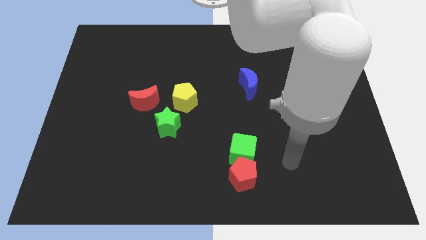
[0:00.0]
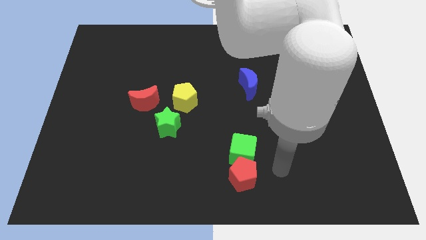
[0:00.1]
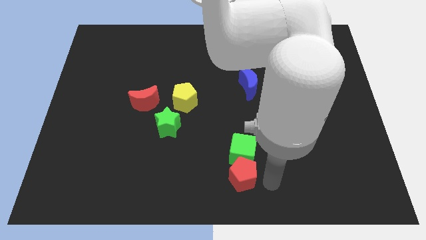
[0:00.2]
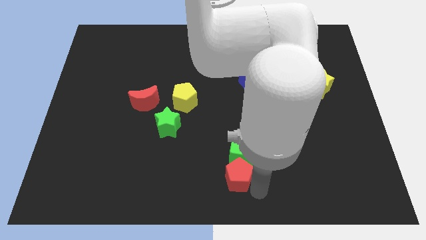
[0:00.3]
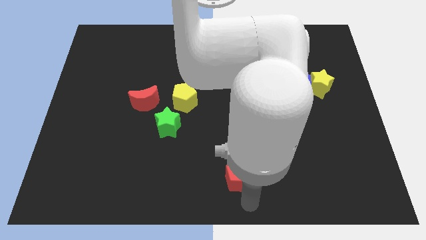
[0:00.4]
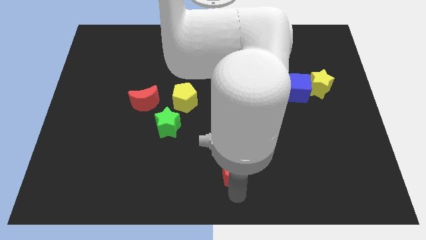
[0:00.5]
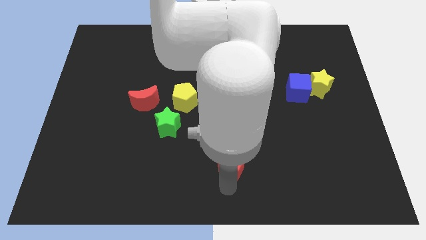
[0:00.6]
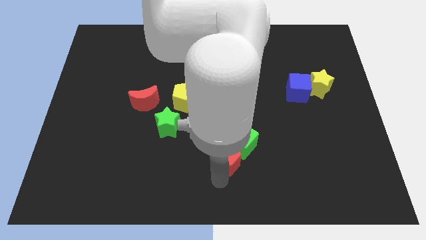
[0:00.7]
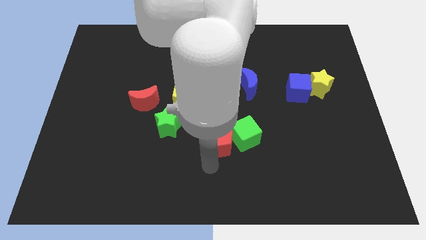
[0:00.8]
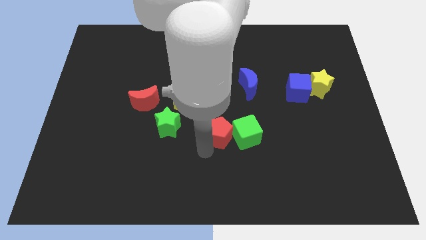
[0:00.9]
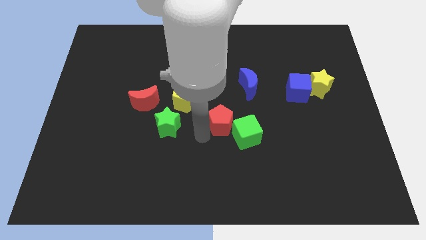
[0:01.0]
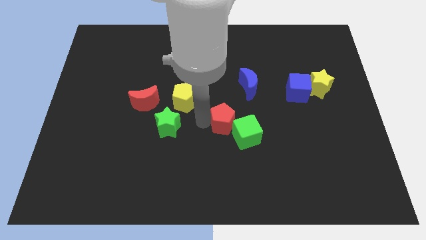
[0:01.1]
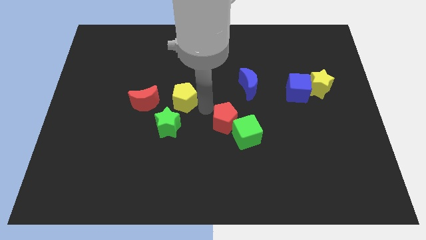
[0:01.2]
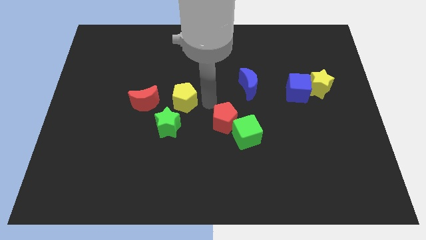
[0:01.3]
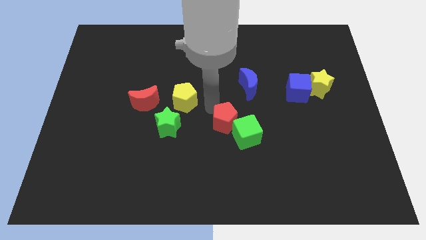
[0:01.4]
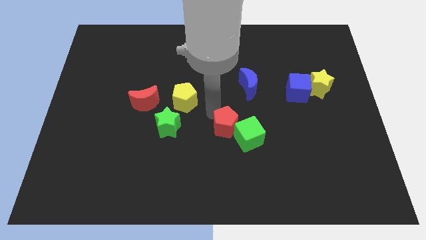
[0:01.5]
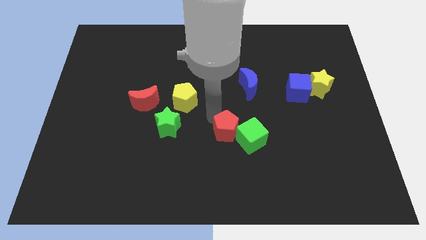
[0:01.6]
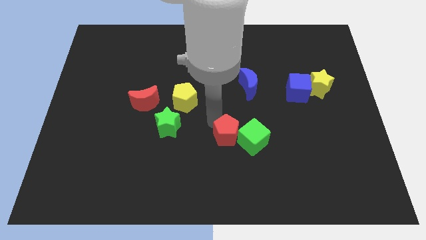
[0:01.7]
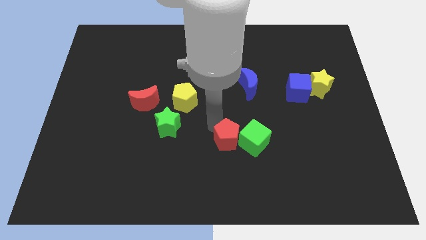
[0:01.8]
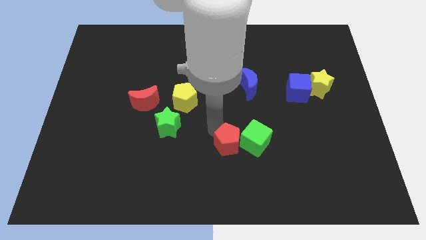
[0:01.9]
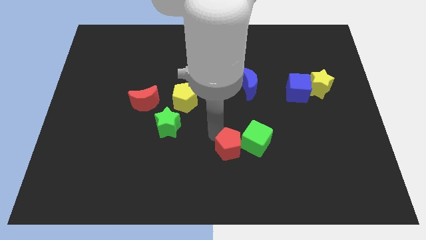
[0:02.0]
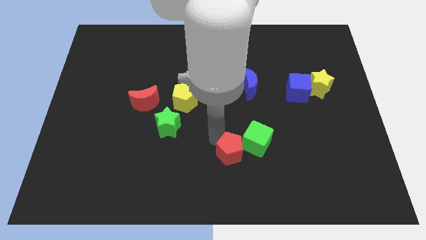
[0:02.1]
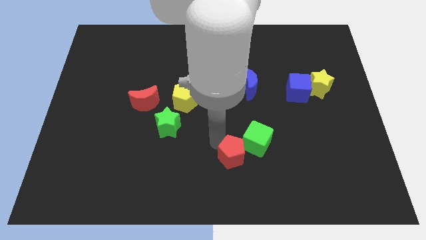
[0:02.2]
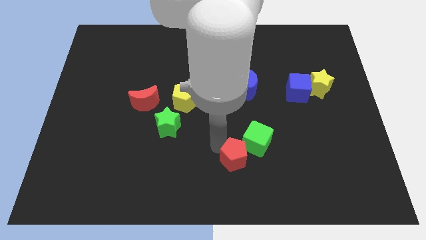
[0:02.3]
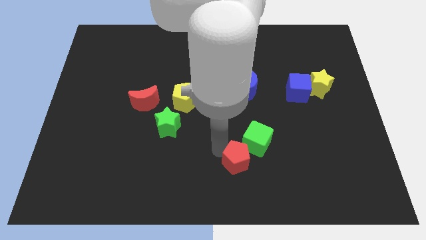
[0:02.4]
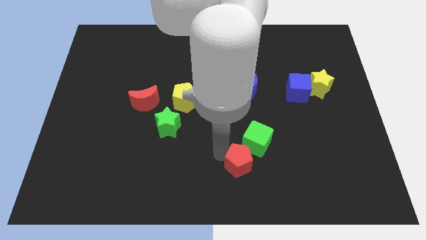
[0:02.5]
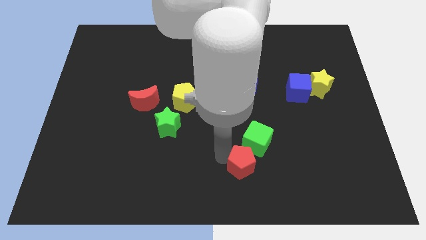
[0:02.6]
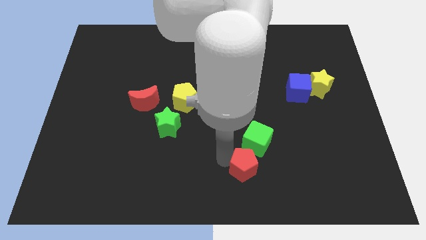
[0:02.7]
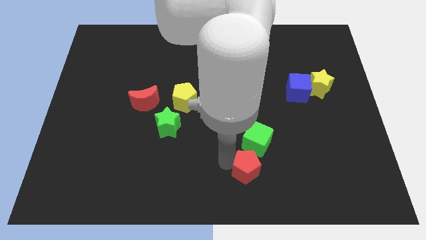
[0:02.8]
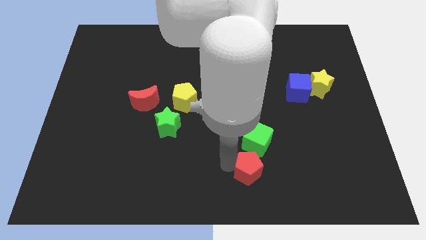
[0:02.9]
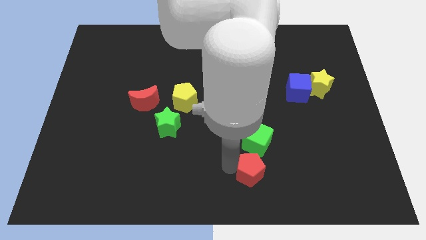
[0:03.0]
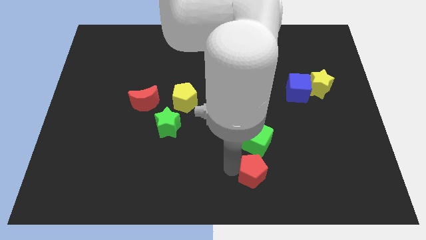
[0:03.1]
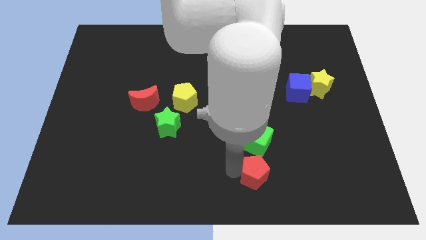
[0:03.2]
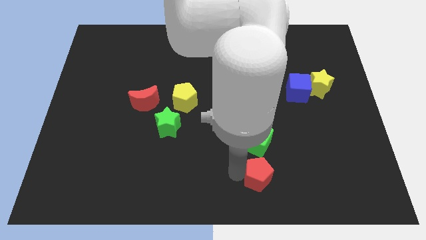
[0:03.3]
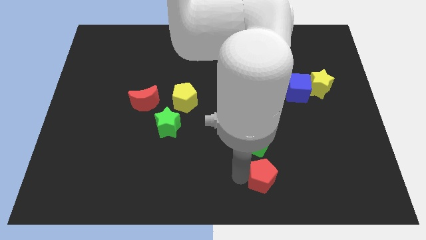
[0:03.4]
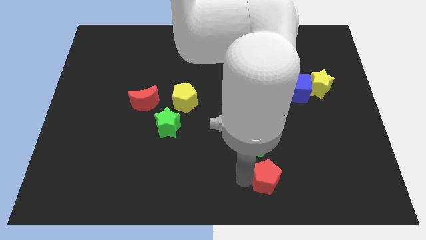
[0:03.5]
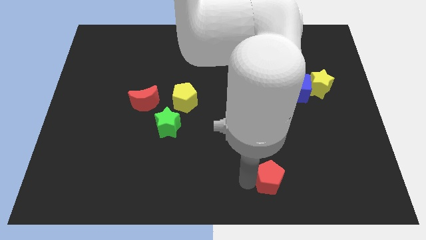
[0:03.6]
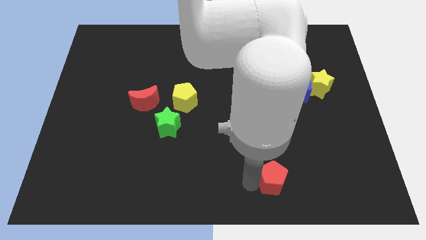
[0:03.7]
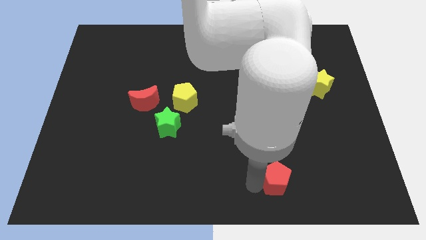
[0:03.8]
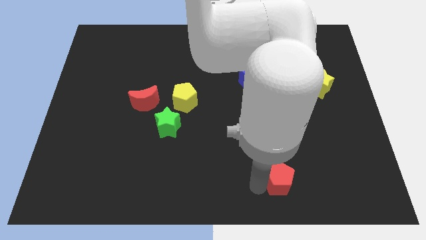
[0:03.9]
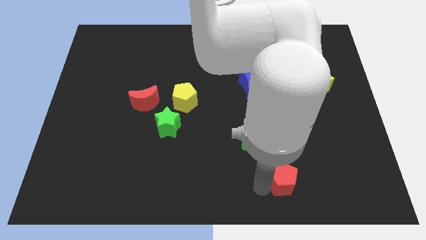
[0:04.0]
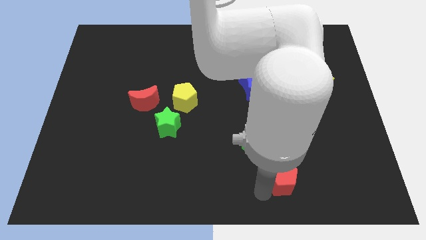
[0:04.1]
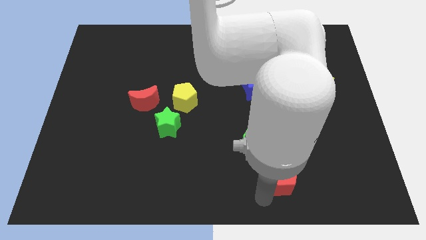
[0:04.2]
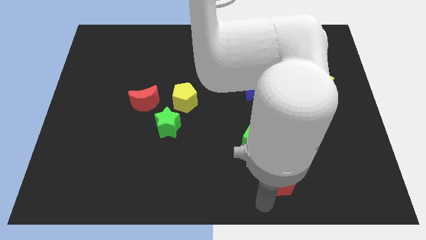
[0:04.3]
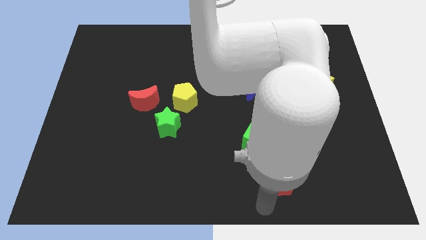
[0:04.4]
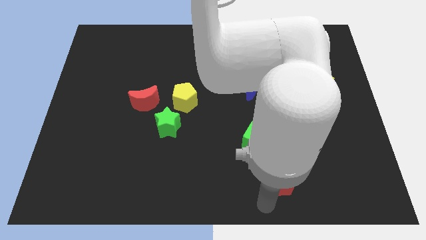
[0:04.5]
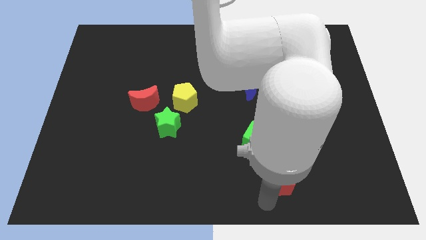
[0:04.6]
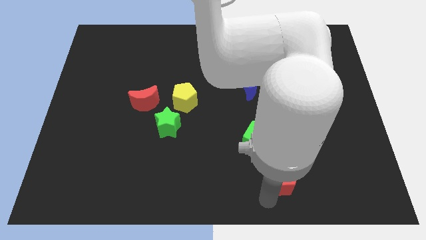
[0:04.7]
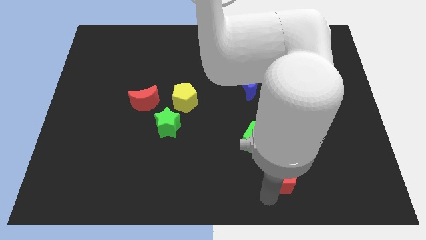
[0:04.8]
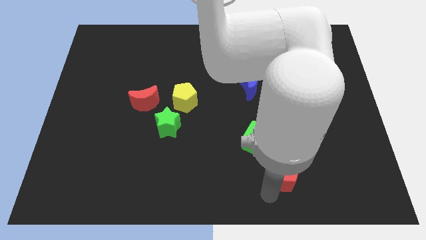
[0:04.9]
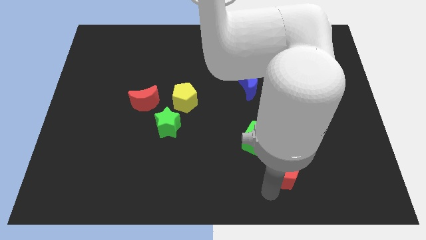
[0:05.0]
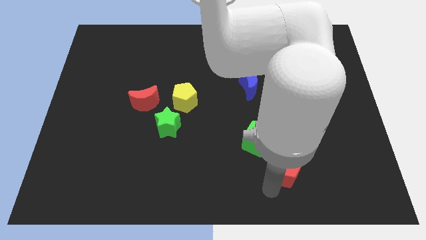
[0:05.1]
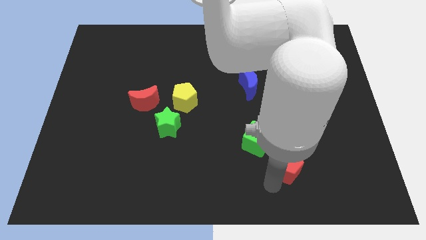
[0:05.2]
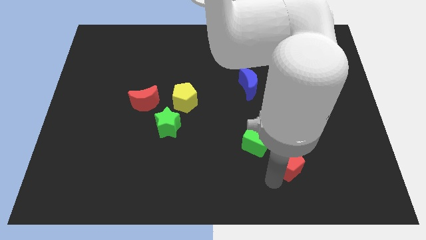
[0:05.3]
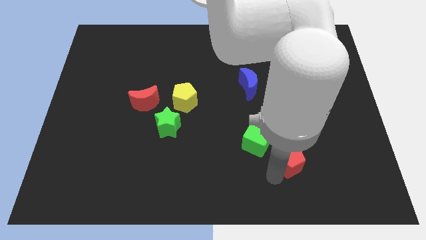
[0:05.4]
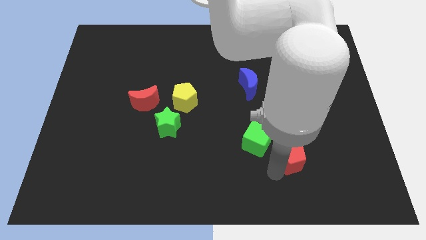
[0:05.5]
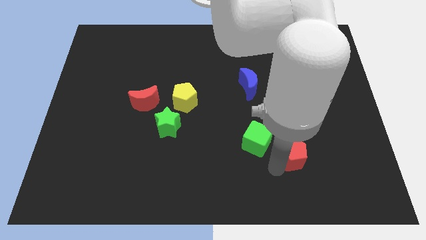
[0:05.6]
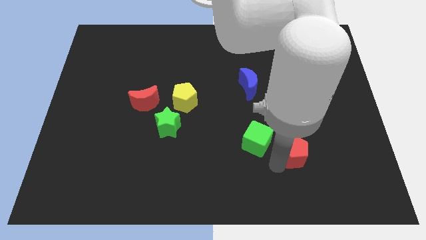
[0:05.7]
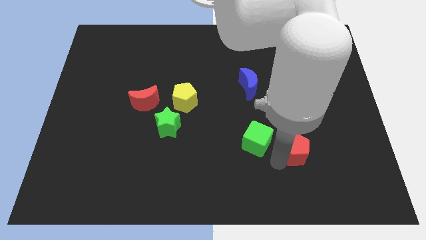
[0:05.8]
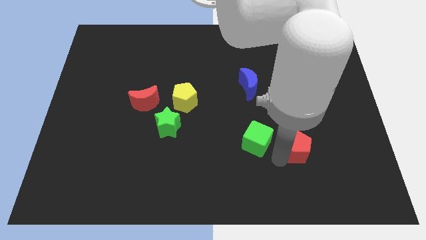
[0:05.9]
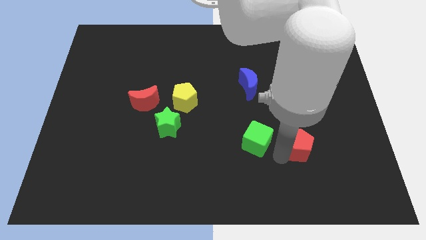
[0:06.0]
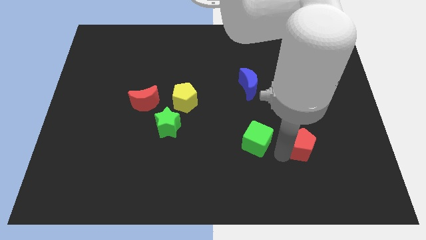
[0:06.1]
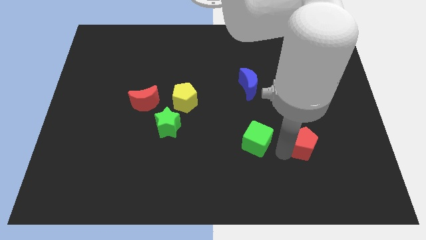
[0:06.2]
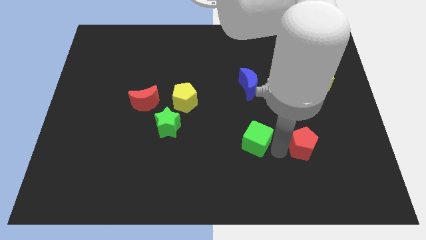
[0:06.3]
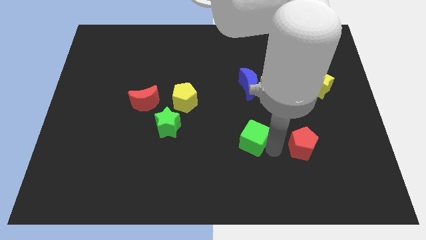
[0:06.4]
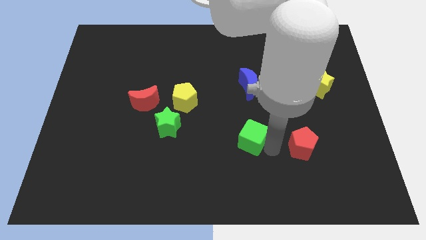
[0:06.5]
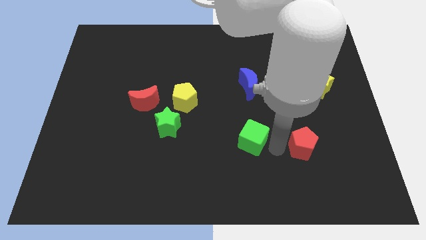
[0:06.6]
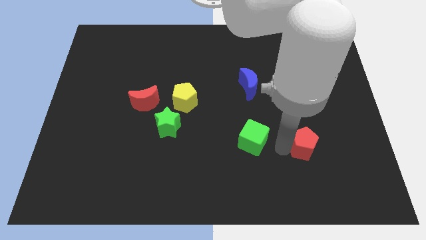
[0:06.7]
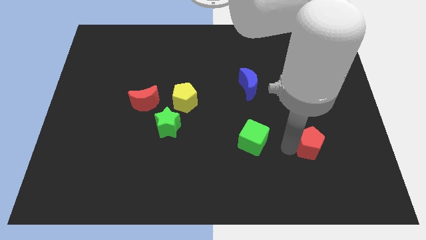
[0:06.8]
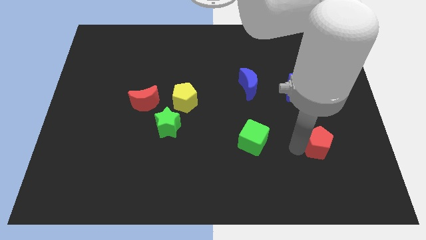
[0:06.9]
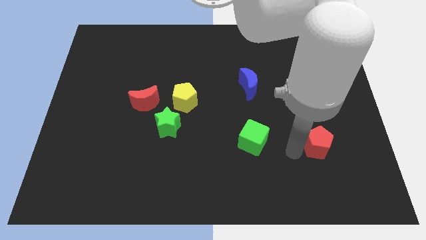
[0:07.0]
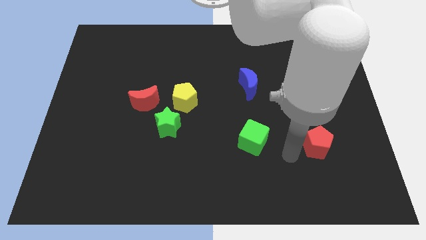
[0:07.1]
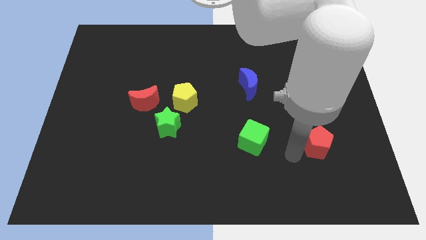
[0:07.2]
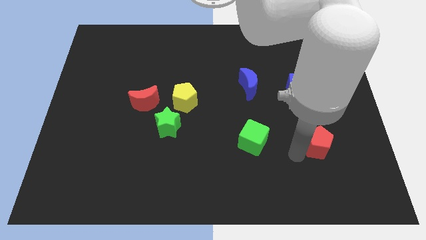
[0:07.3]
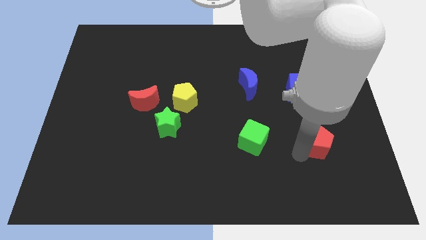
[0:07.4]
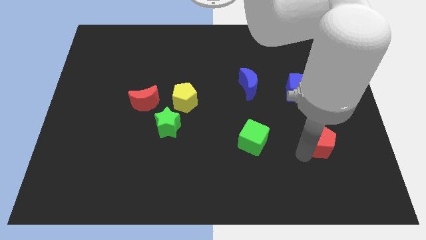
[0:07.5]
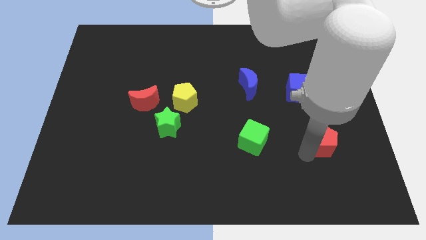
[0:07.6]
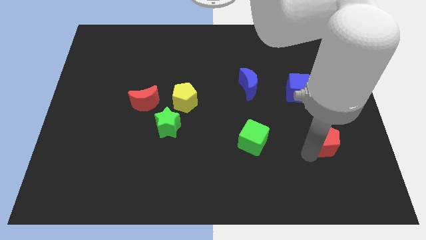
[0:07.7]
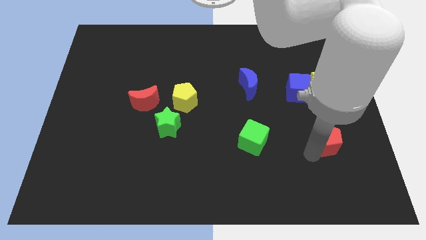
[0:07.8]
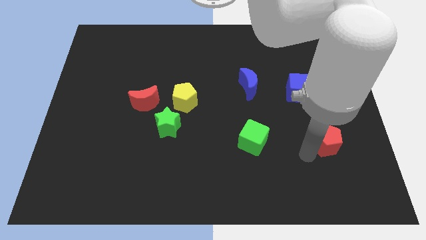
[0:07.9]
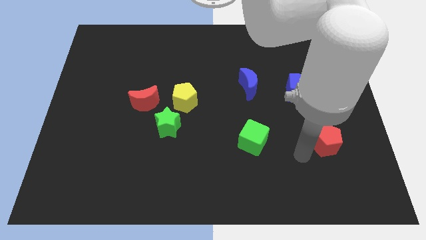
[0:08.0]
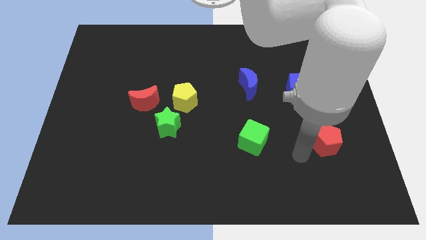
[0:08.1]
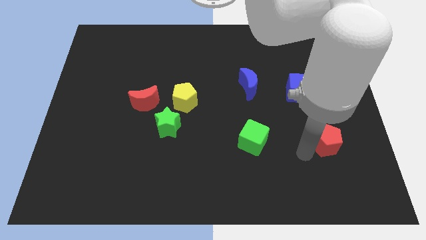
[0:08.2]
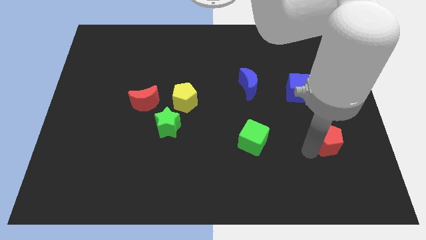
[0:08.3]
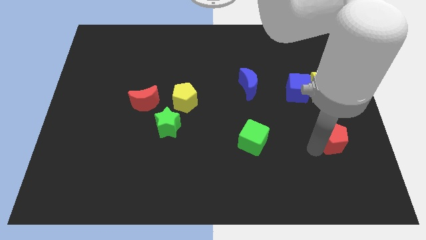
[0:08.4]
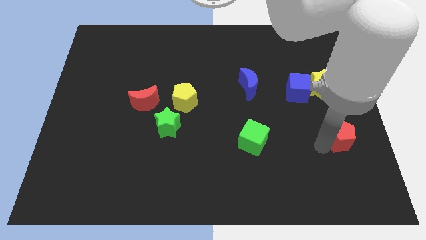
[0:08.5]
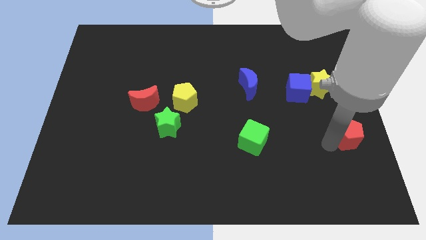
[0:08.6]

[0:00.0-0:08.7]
push the red pentagon to the right side of the board
